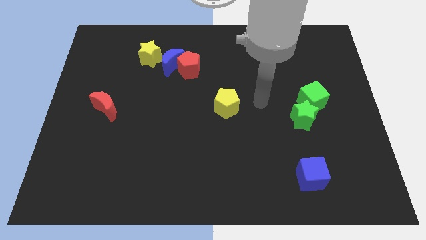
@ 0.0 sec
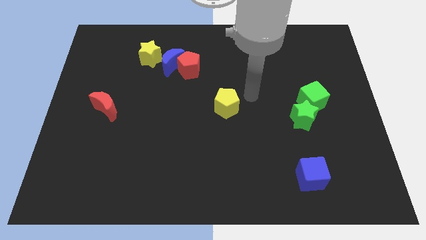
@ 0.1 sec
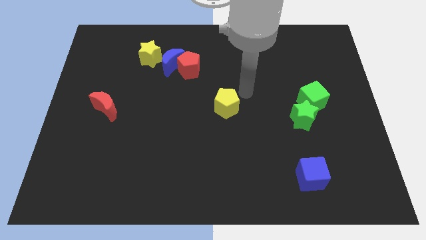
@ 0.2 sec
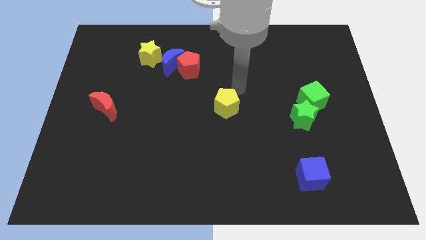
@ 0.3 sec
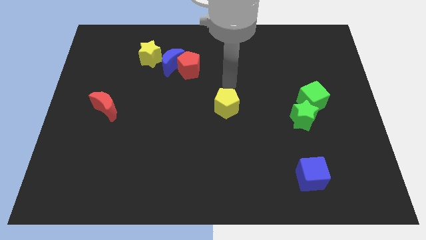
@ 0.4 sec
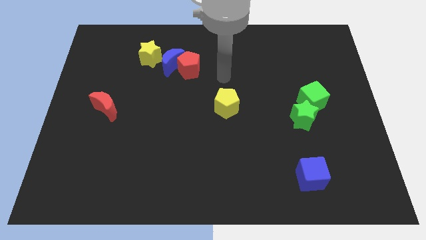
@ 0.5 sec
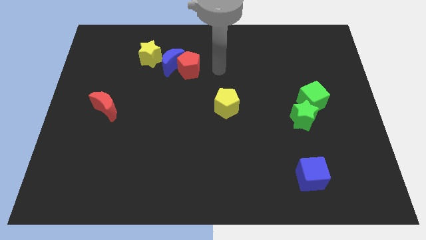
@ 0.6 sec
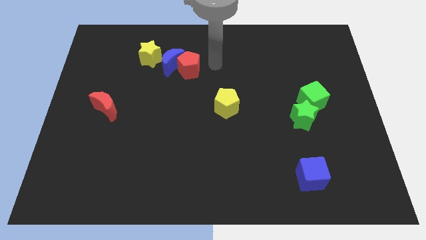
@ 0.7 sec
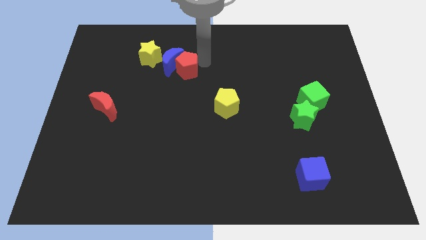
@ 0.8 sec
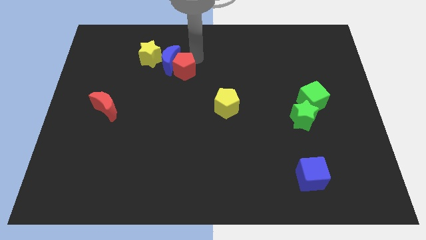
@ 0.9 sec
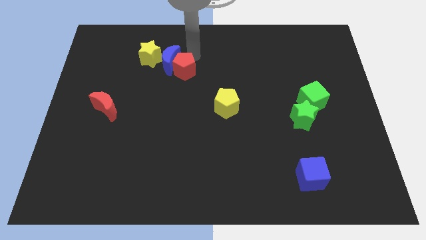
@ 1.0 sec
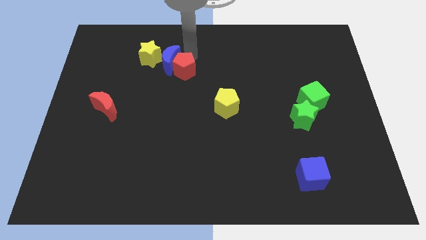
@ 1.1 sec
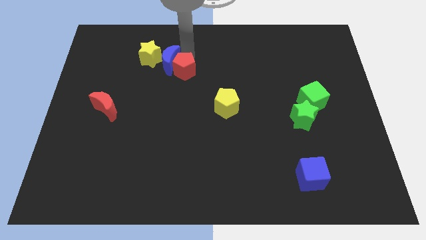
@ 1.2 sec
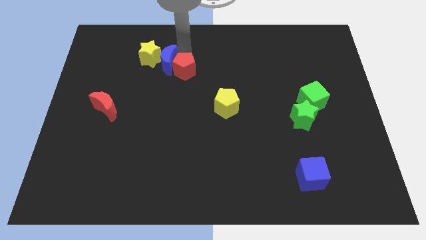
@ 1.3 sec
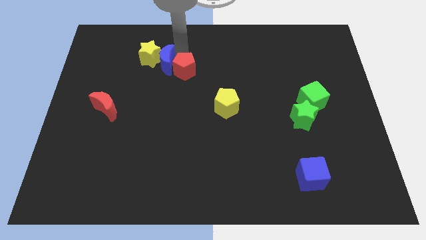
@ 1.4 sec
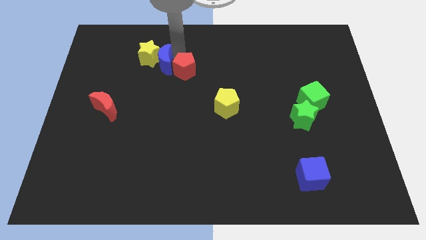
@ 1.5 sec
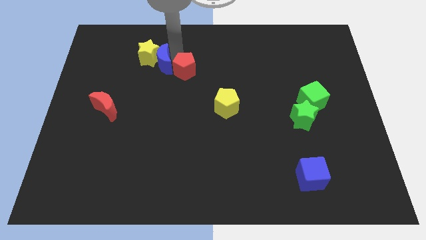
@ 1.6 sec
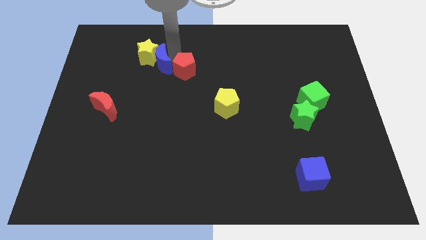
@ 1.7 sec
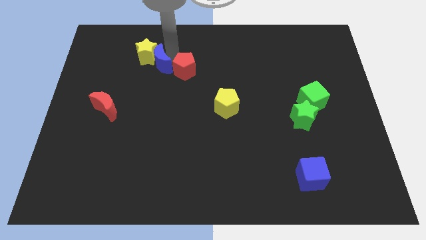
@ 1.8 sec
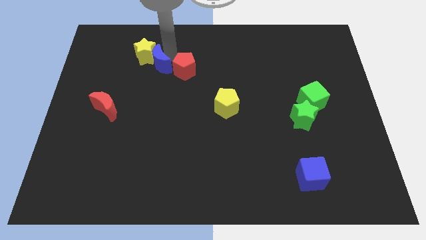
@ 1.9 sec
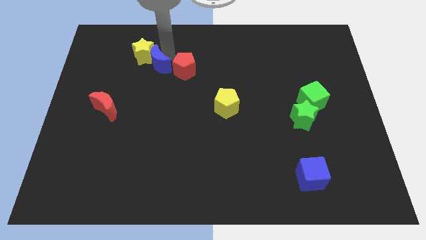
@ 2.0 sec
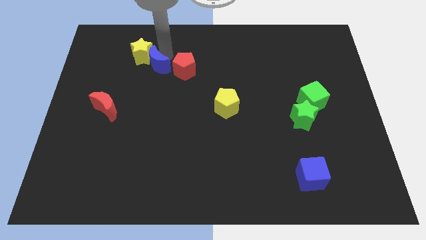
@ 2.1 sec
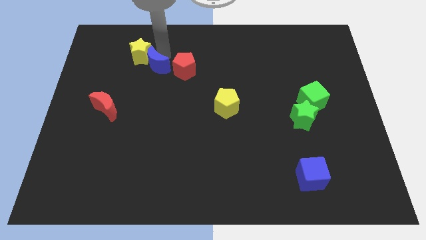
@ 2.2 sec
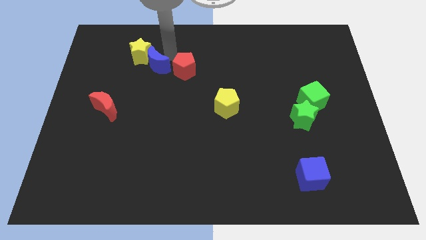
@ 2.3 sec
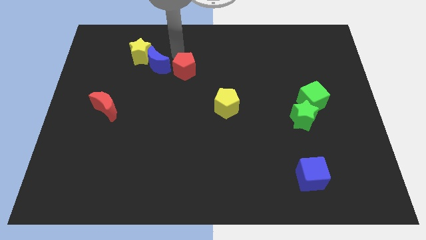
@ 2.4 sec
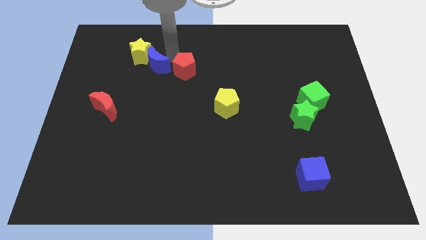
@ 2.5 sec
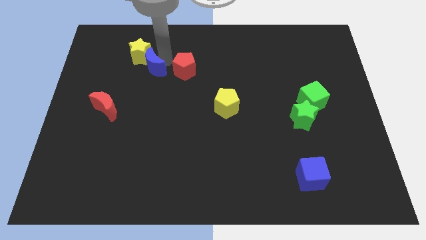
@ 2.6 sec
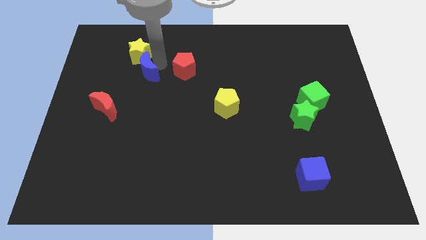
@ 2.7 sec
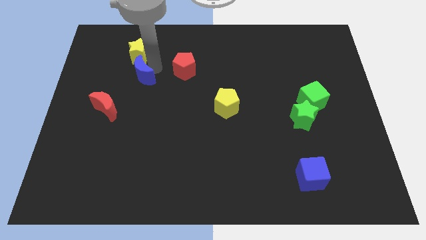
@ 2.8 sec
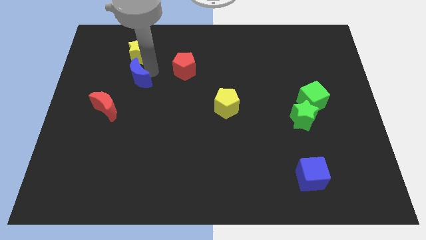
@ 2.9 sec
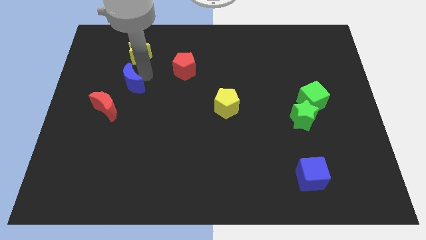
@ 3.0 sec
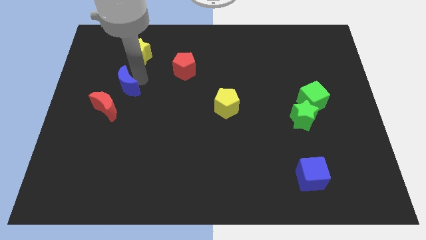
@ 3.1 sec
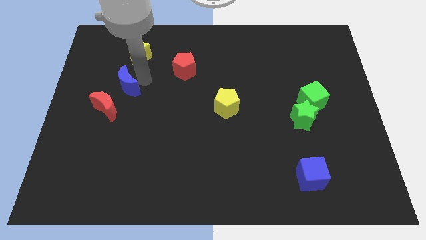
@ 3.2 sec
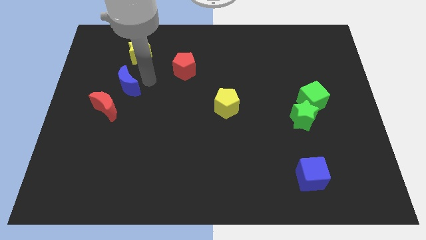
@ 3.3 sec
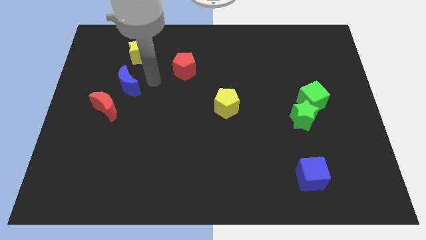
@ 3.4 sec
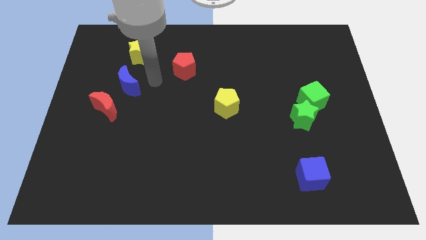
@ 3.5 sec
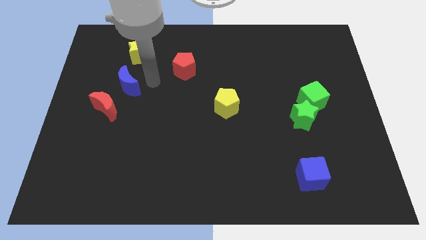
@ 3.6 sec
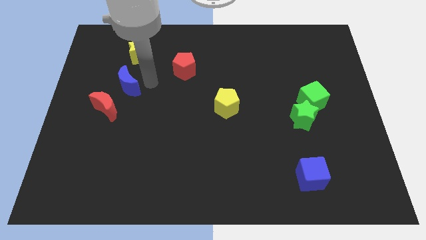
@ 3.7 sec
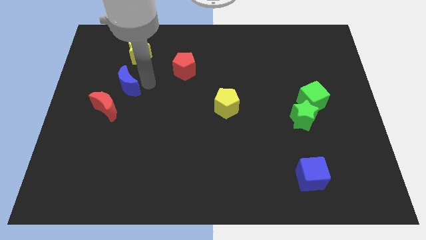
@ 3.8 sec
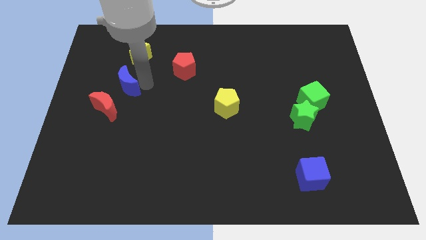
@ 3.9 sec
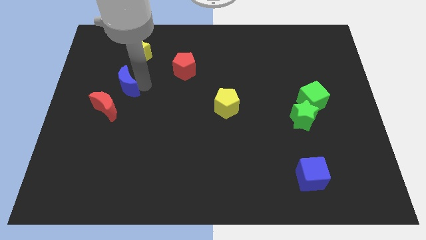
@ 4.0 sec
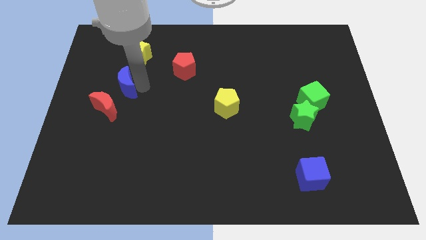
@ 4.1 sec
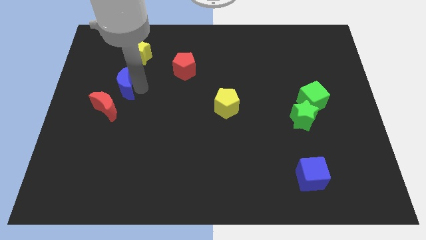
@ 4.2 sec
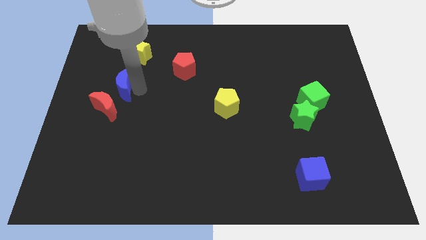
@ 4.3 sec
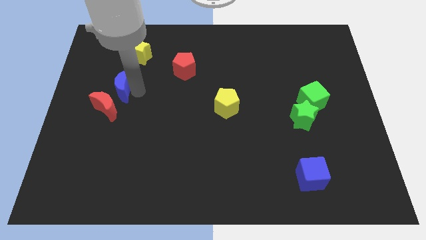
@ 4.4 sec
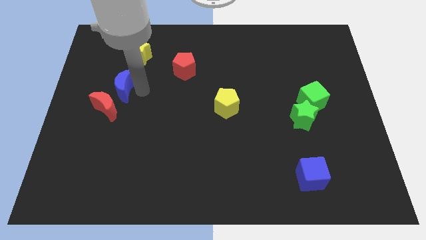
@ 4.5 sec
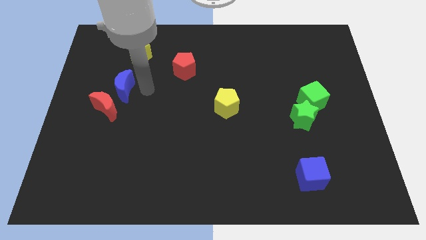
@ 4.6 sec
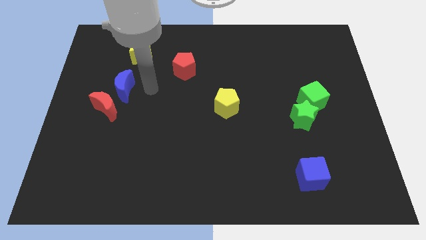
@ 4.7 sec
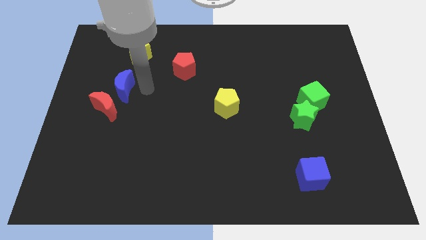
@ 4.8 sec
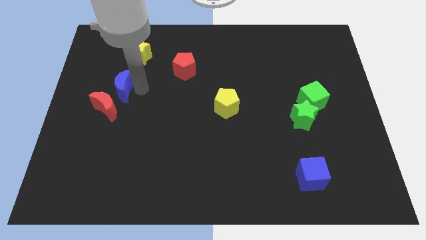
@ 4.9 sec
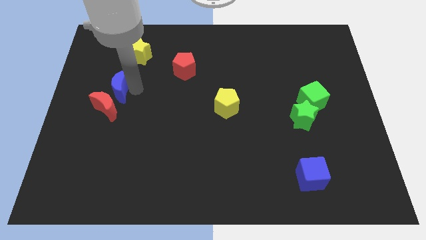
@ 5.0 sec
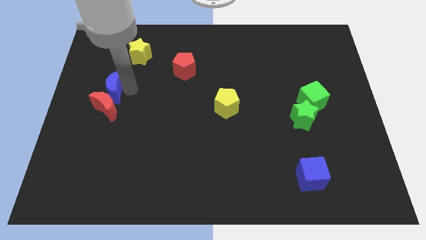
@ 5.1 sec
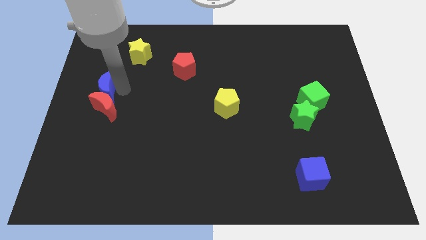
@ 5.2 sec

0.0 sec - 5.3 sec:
slide the blue moon to the center left

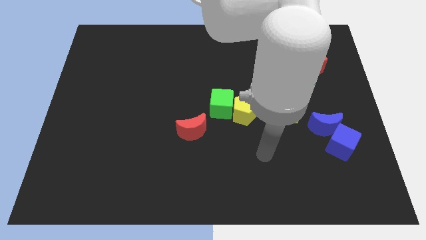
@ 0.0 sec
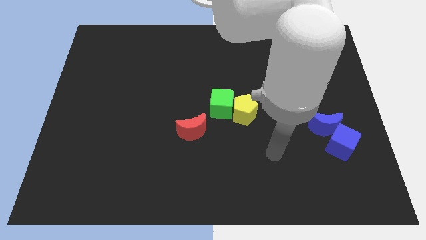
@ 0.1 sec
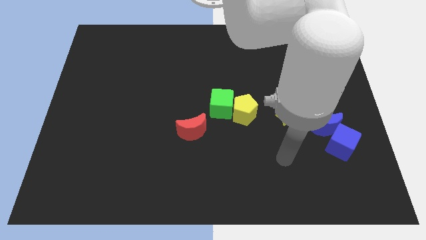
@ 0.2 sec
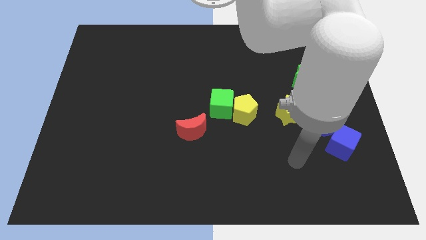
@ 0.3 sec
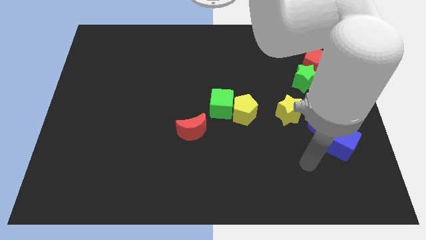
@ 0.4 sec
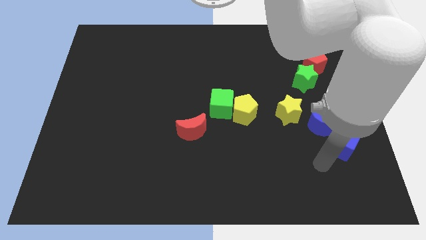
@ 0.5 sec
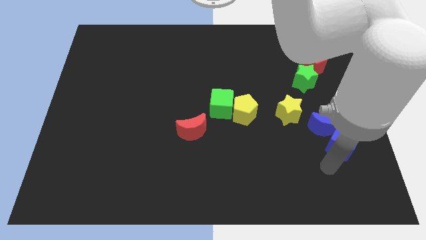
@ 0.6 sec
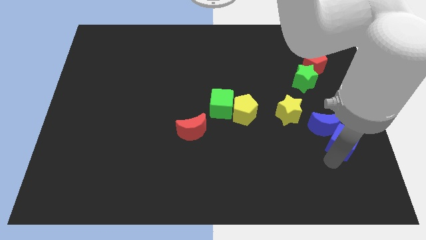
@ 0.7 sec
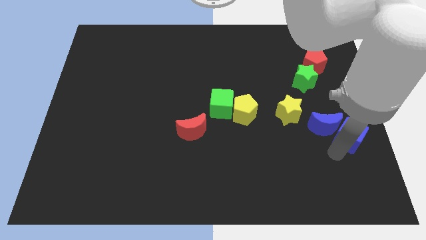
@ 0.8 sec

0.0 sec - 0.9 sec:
move the blue cube to the right side of the board
